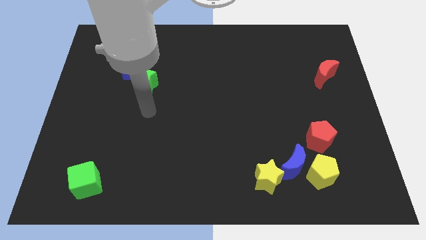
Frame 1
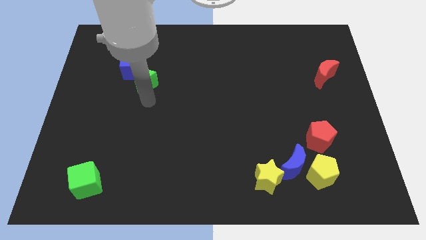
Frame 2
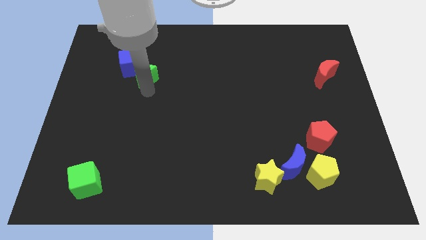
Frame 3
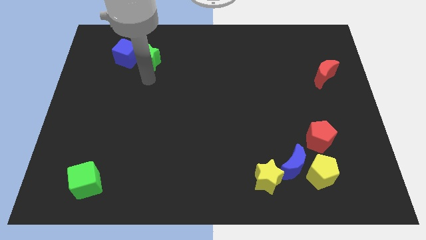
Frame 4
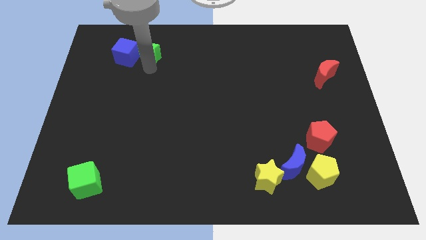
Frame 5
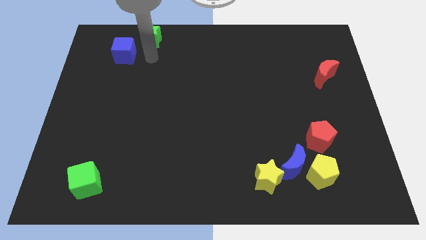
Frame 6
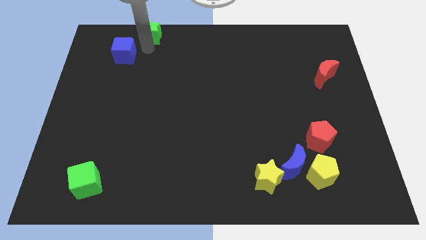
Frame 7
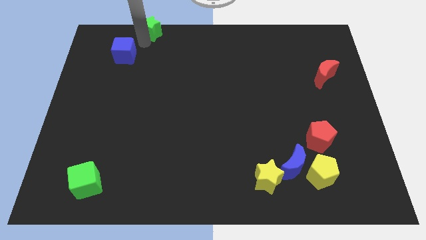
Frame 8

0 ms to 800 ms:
separate the blue cube from the green star

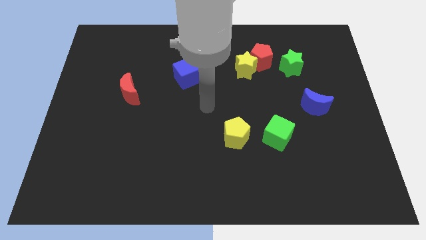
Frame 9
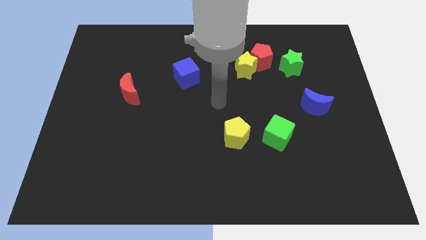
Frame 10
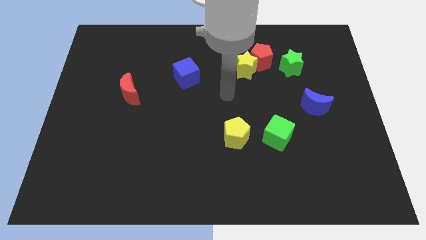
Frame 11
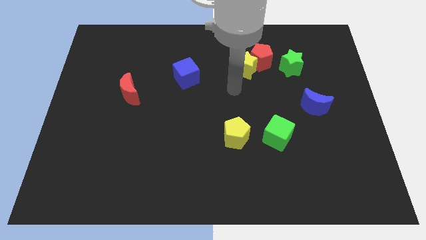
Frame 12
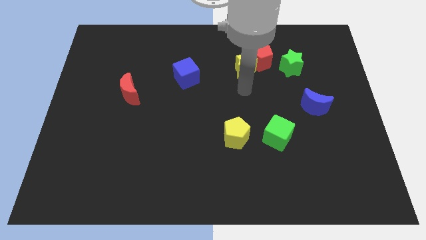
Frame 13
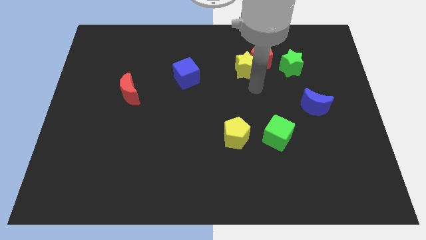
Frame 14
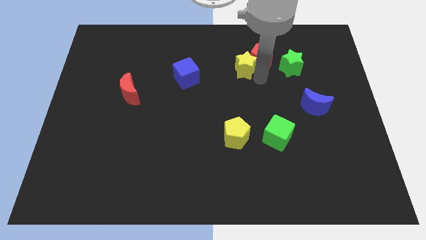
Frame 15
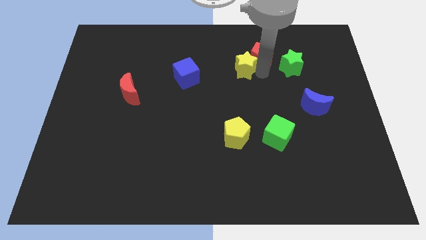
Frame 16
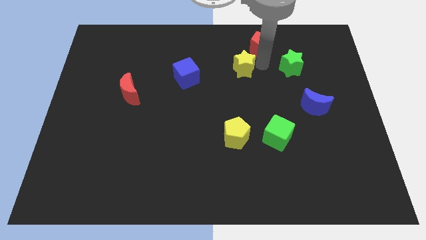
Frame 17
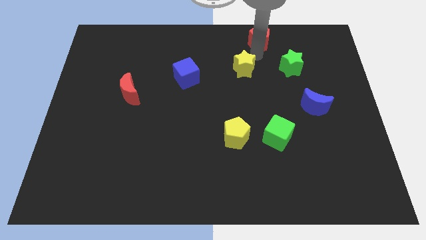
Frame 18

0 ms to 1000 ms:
separate the yellow star from the red pentagon

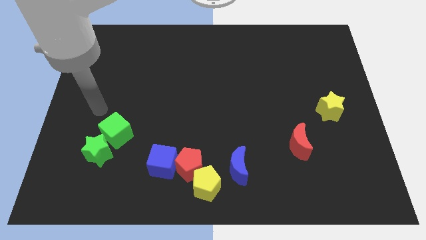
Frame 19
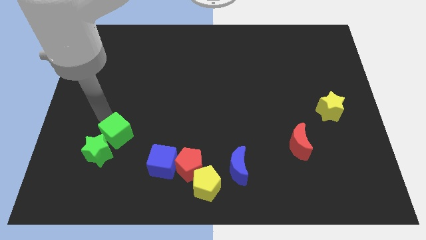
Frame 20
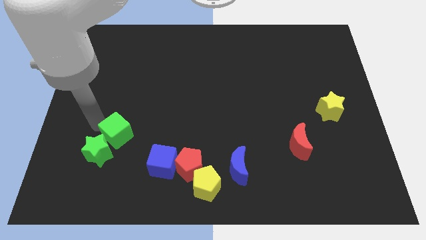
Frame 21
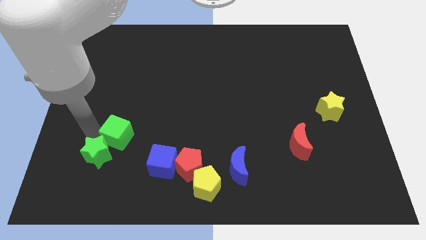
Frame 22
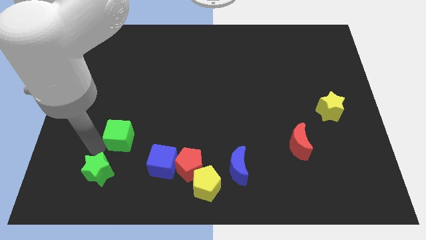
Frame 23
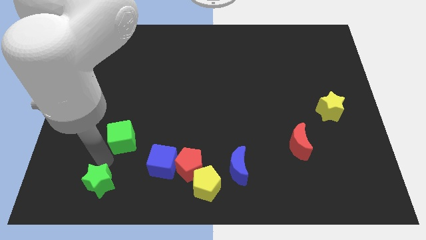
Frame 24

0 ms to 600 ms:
move the green cube away from the green star

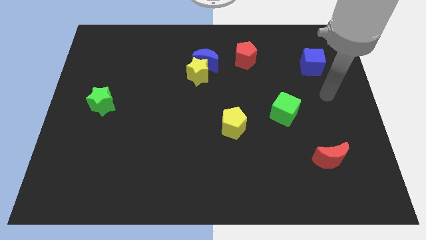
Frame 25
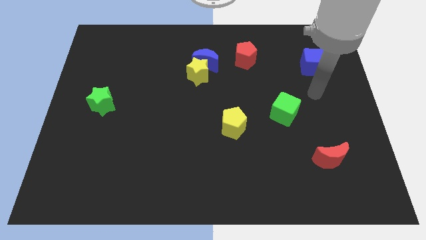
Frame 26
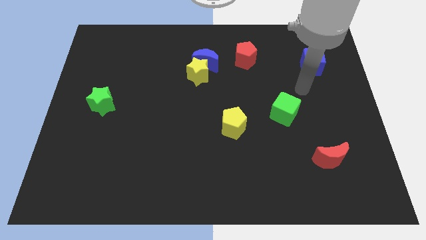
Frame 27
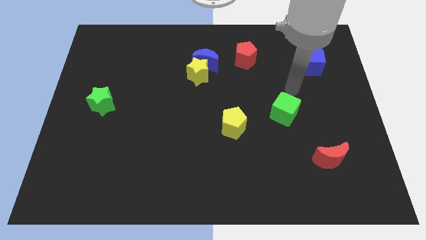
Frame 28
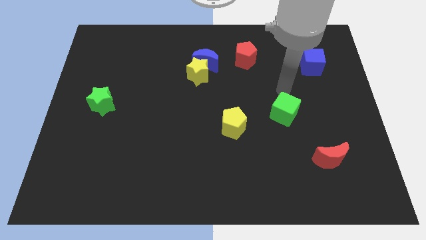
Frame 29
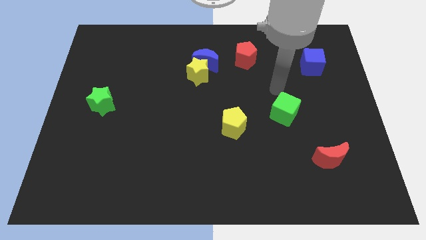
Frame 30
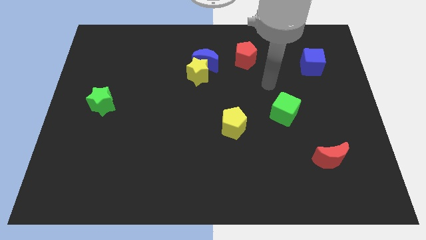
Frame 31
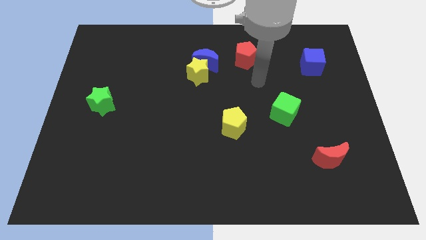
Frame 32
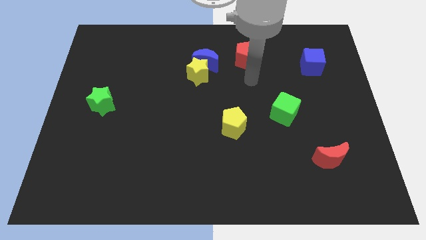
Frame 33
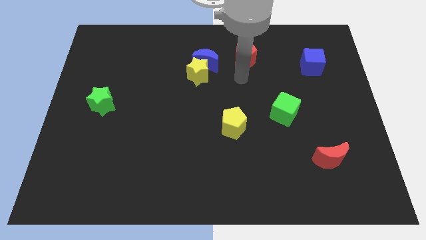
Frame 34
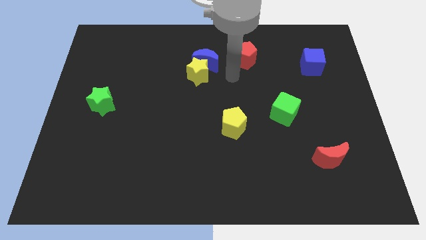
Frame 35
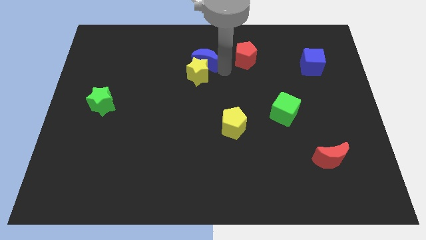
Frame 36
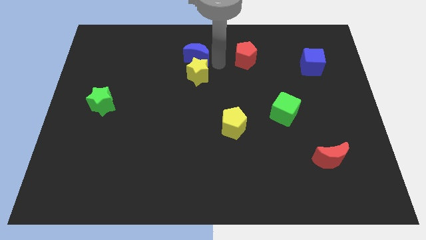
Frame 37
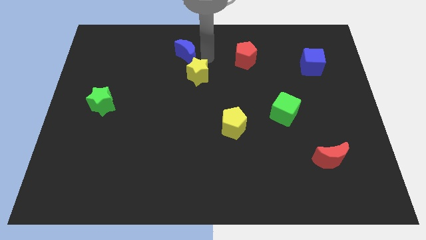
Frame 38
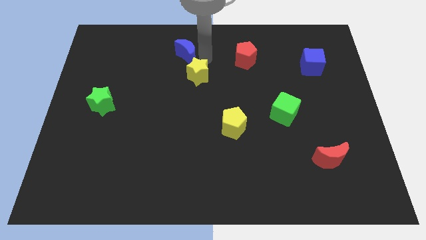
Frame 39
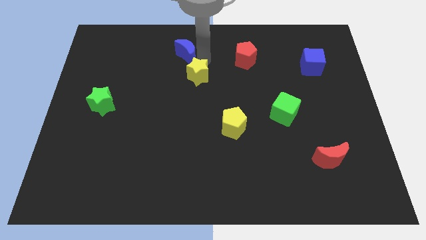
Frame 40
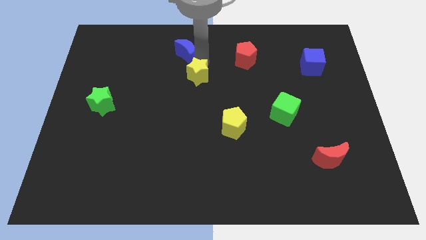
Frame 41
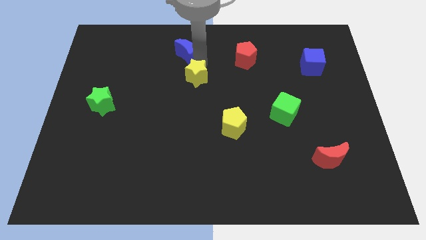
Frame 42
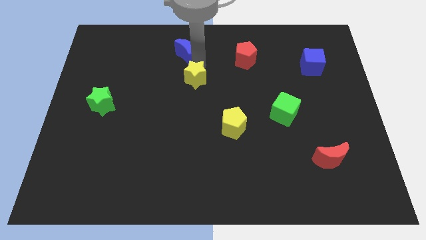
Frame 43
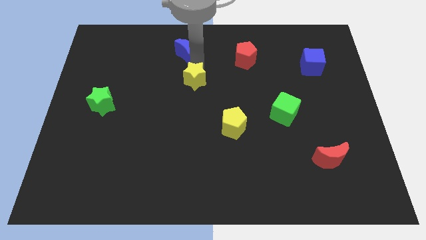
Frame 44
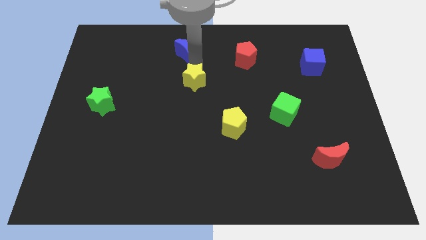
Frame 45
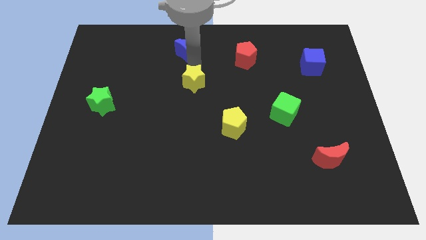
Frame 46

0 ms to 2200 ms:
separate the yellow star from the blue moon

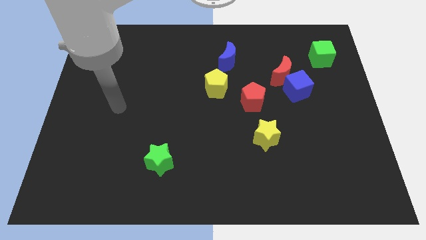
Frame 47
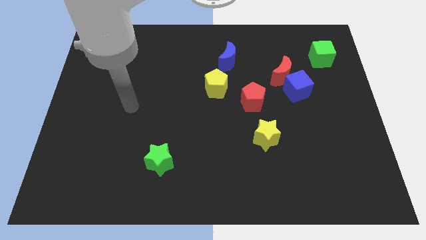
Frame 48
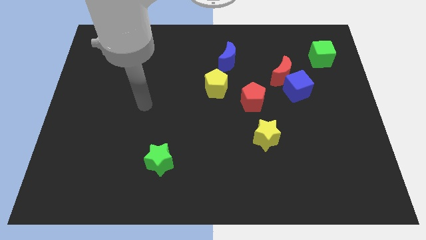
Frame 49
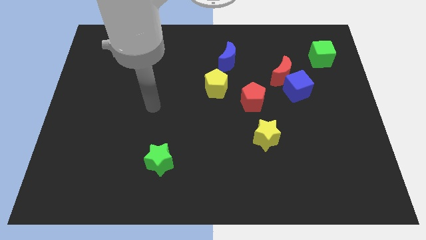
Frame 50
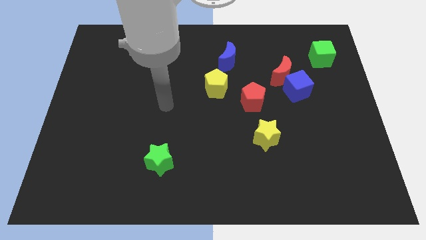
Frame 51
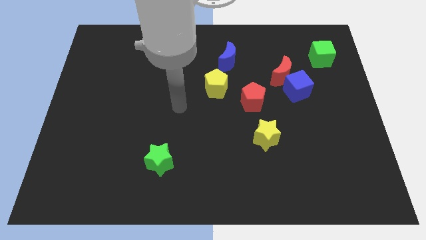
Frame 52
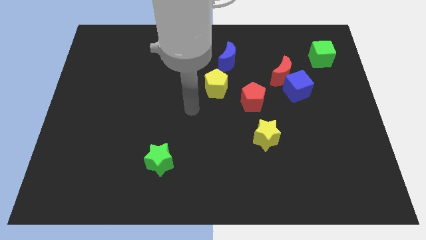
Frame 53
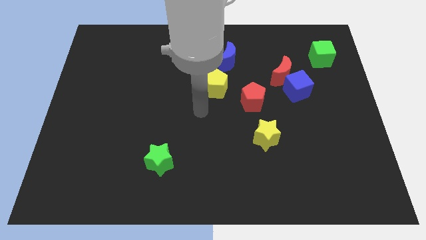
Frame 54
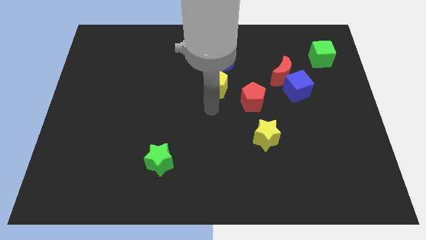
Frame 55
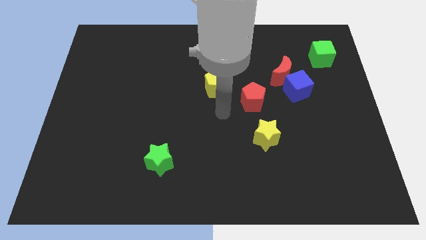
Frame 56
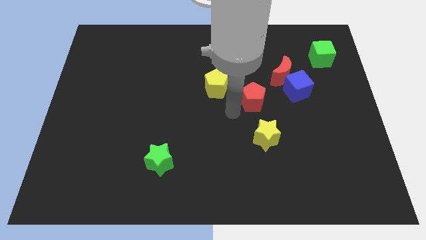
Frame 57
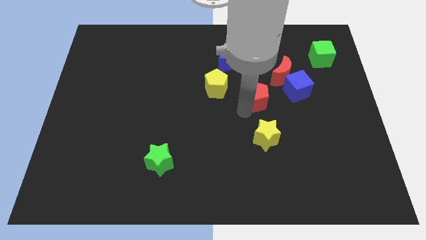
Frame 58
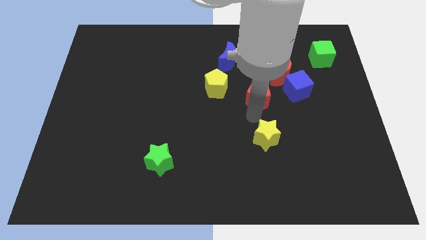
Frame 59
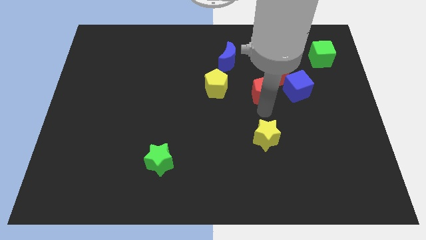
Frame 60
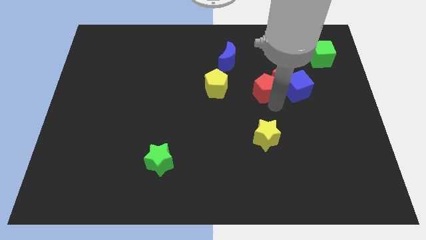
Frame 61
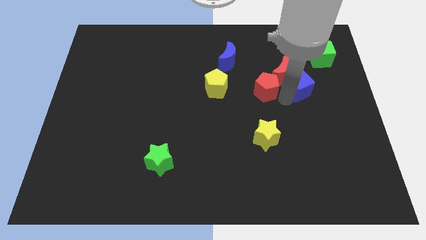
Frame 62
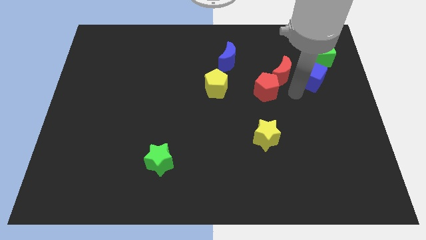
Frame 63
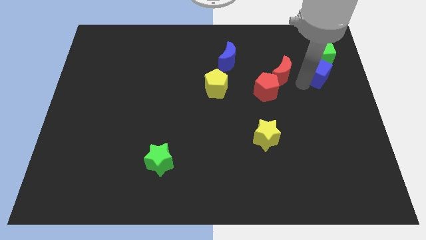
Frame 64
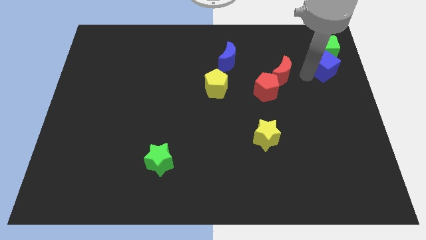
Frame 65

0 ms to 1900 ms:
pull the red moon apart from the blue cube

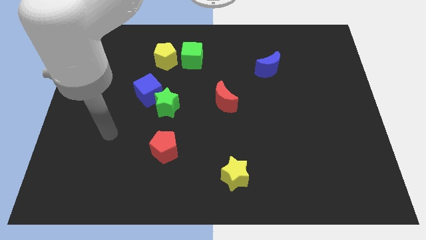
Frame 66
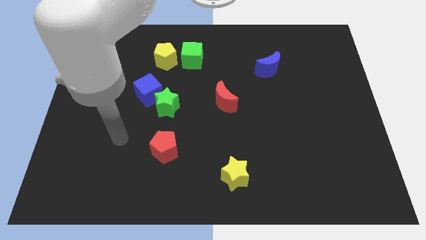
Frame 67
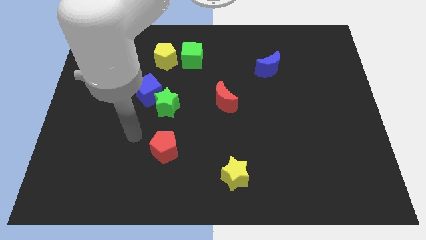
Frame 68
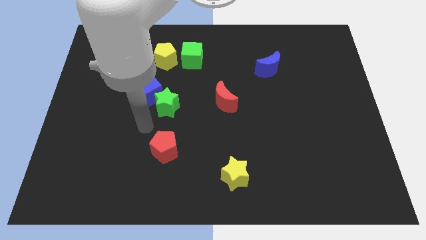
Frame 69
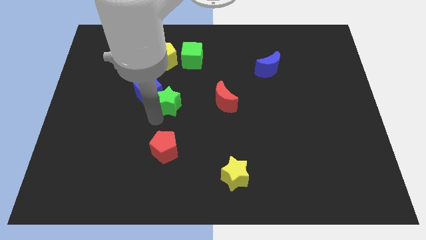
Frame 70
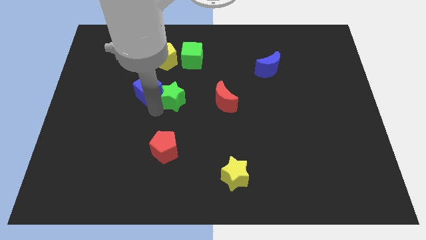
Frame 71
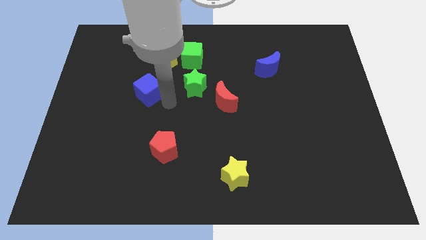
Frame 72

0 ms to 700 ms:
move the blue cube away from the green star

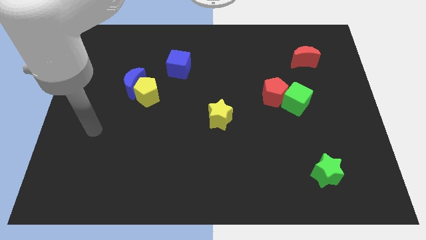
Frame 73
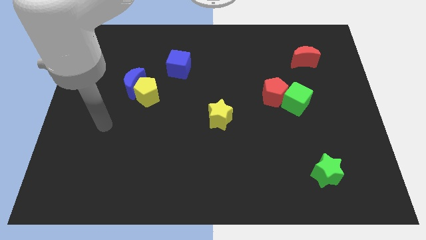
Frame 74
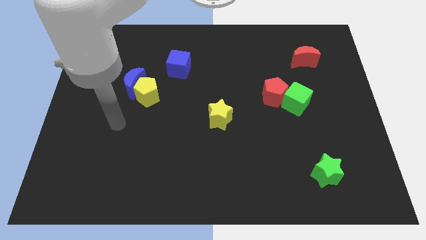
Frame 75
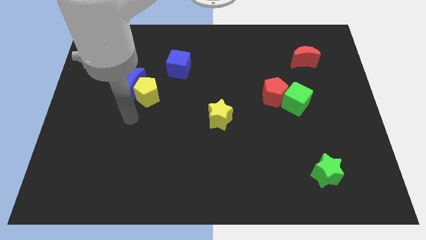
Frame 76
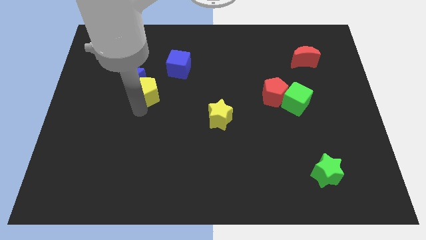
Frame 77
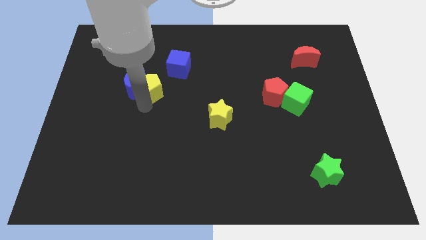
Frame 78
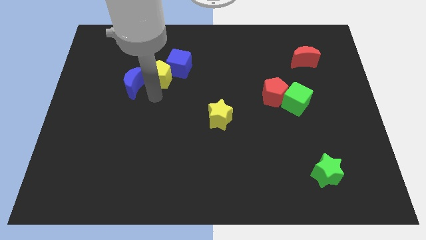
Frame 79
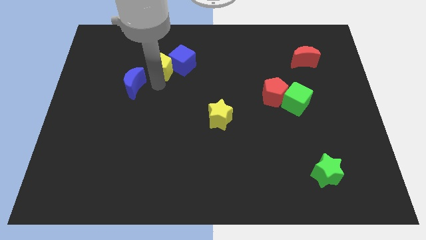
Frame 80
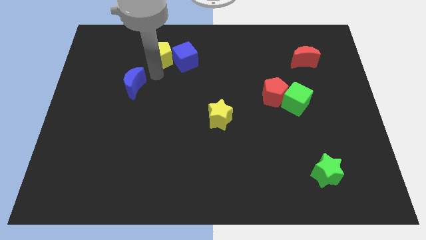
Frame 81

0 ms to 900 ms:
pull the blue moon apart from the yellow pentagon

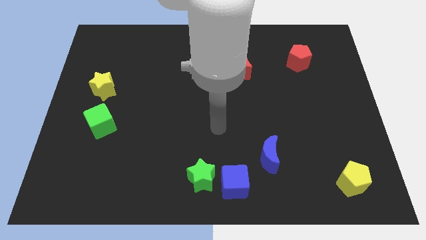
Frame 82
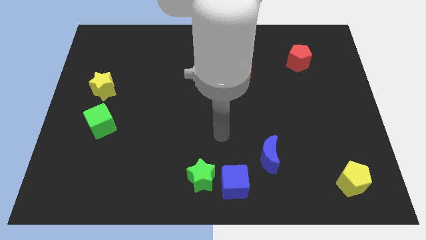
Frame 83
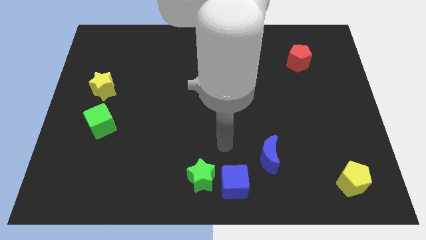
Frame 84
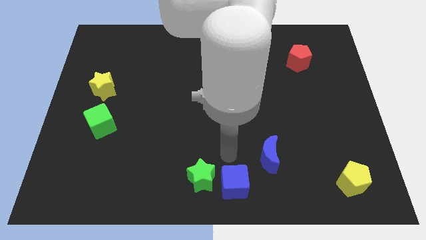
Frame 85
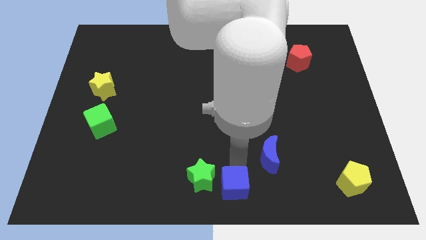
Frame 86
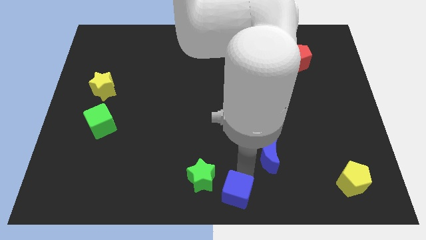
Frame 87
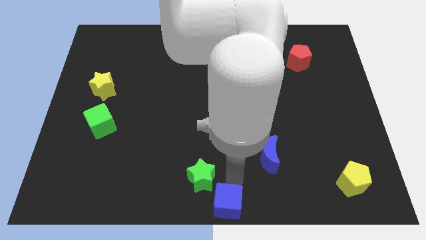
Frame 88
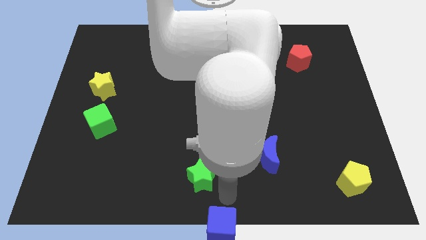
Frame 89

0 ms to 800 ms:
separate the green star from the blue cube

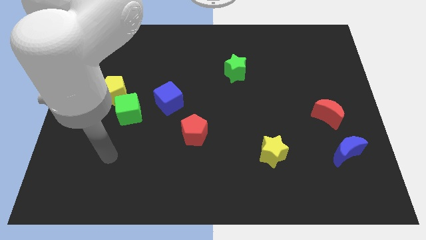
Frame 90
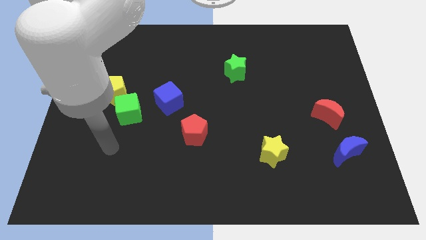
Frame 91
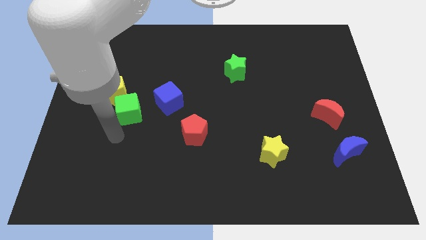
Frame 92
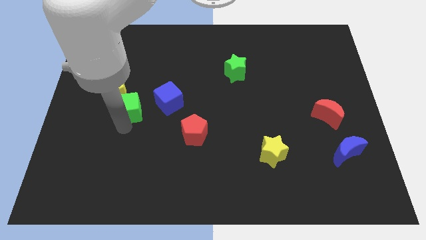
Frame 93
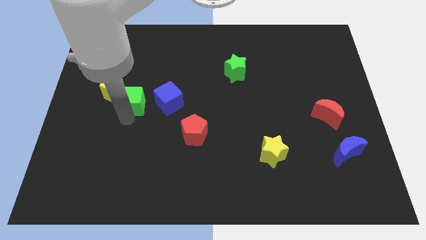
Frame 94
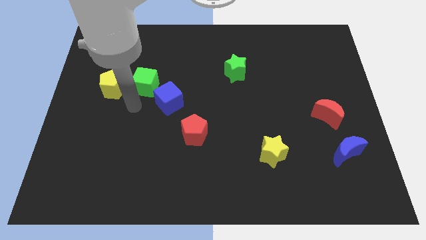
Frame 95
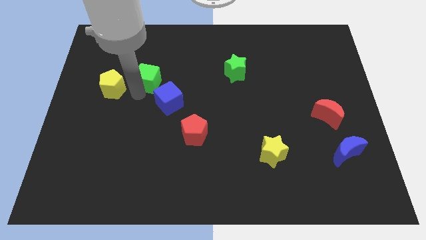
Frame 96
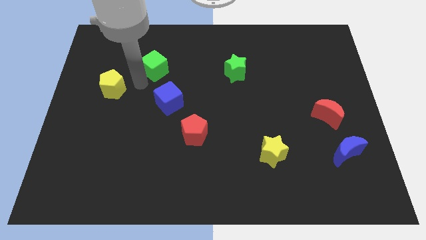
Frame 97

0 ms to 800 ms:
separate the yellow pentagon from the green cube
